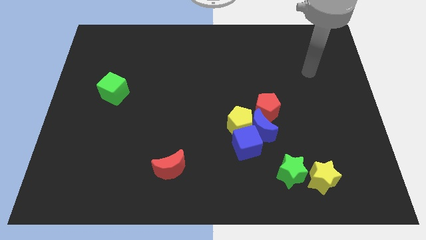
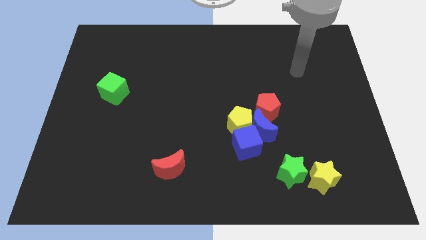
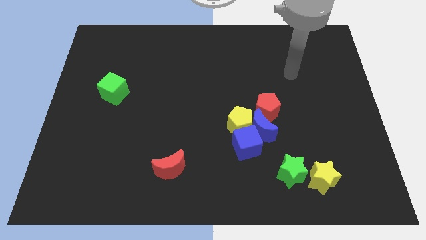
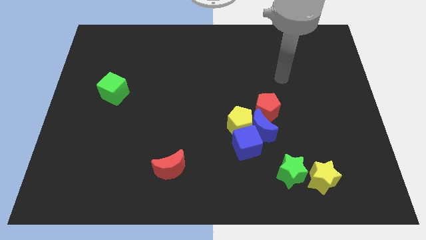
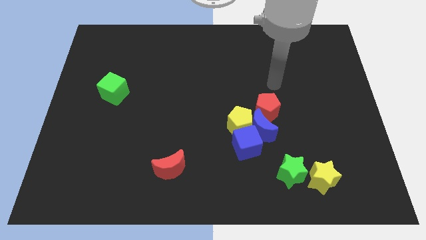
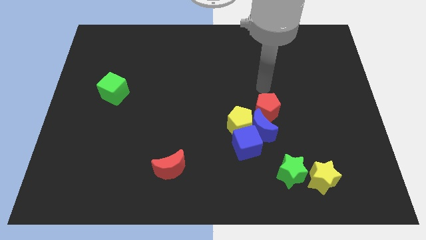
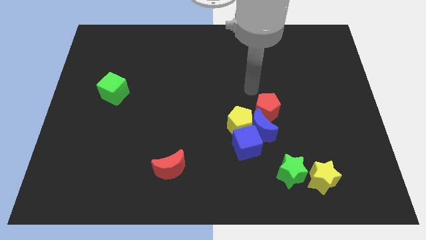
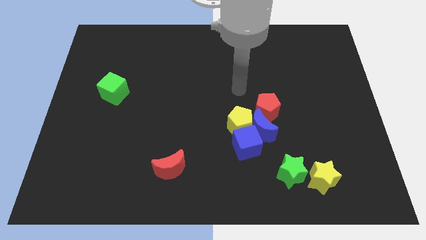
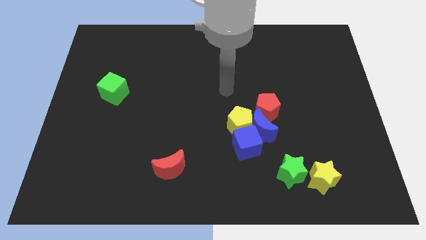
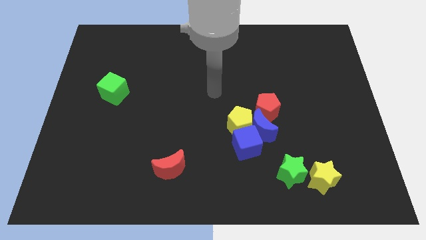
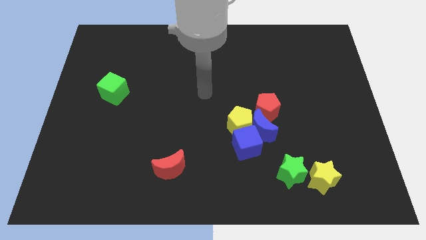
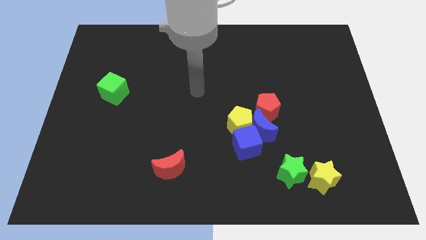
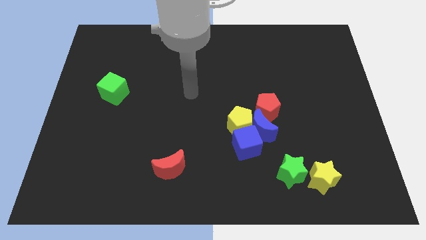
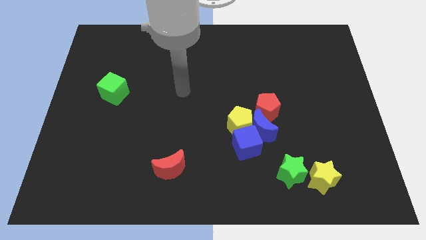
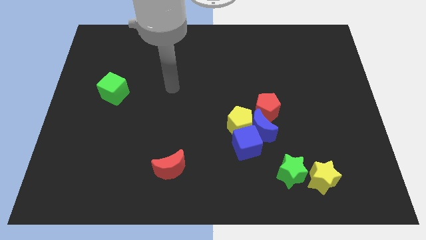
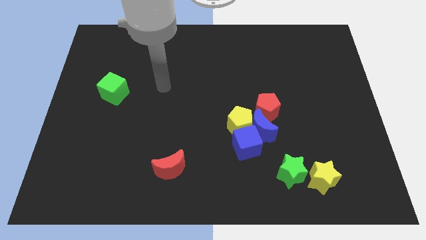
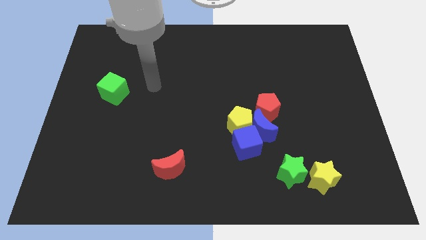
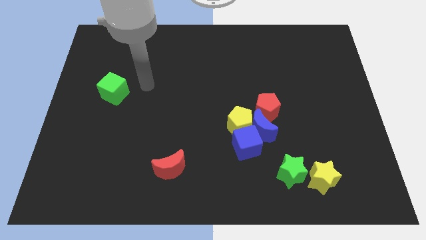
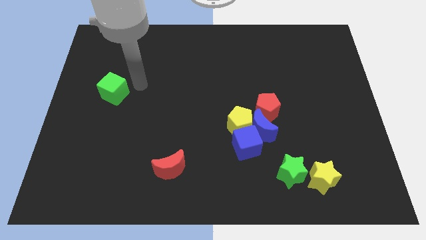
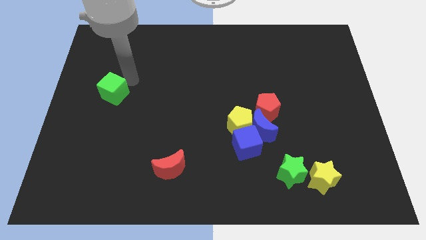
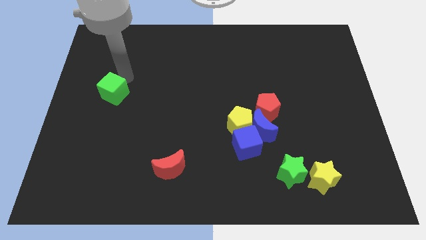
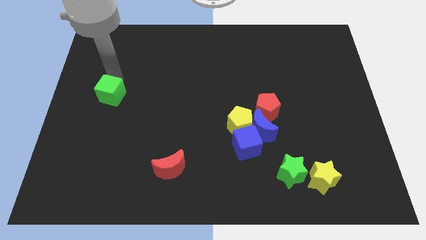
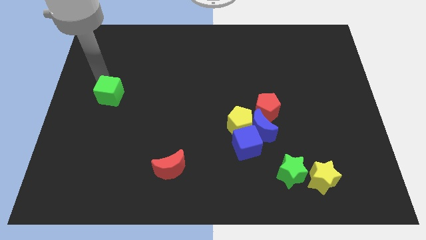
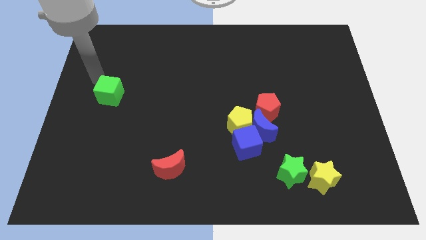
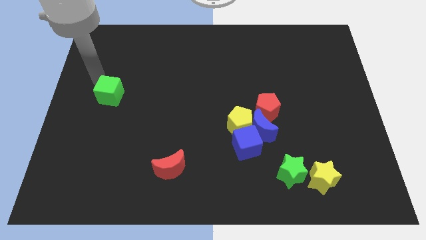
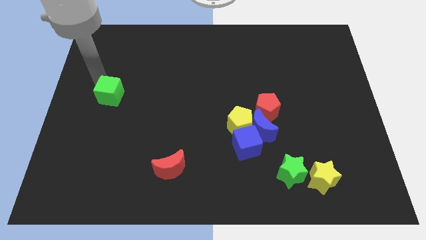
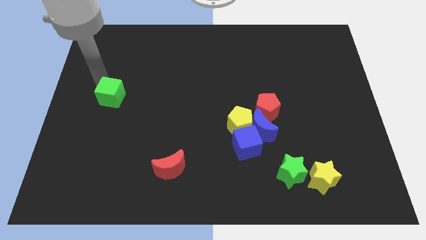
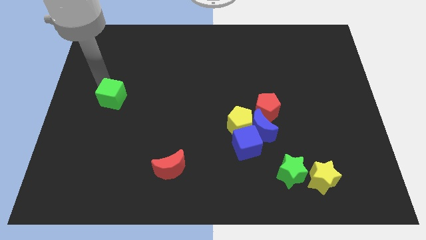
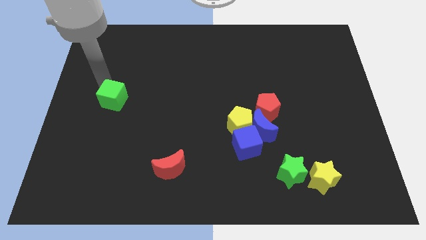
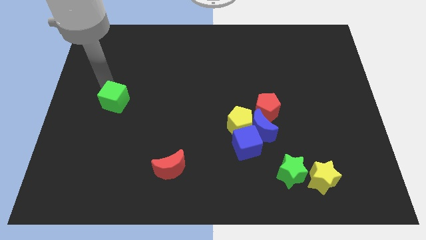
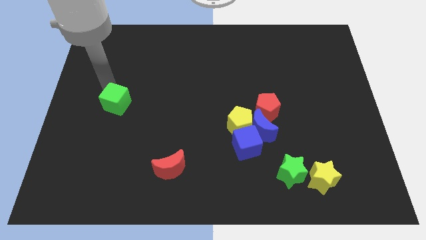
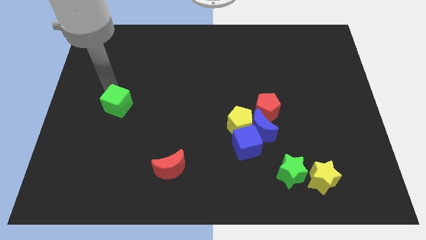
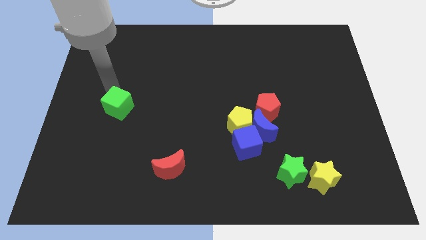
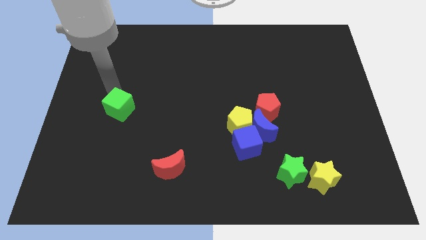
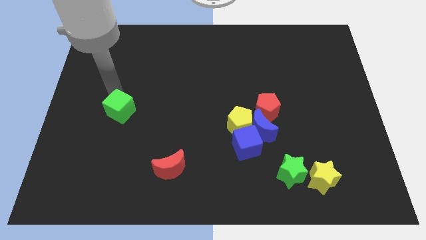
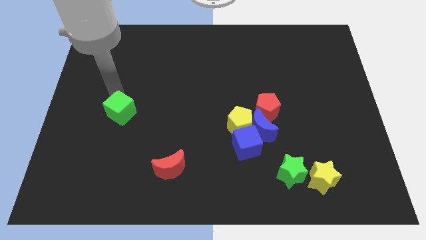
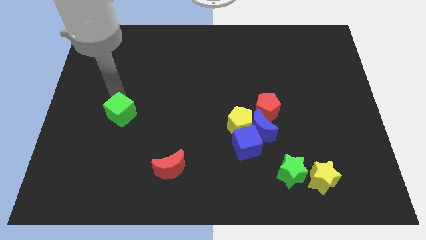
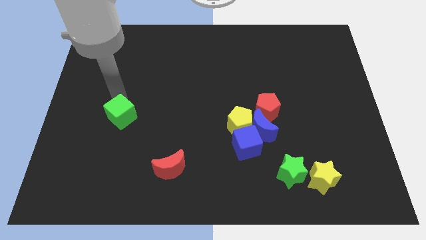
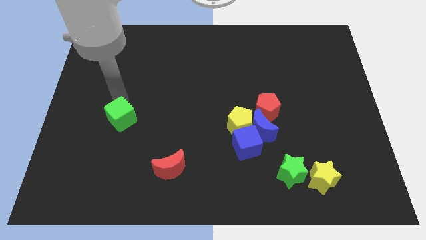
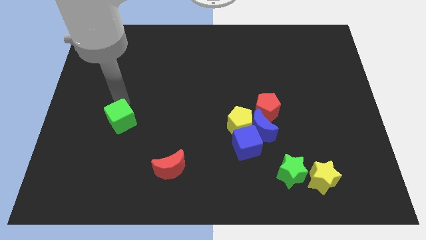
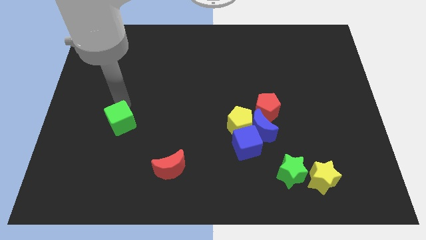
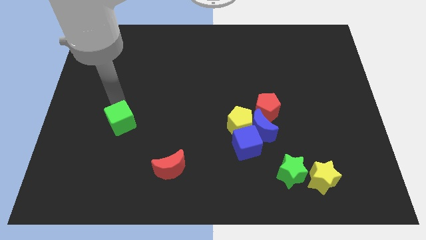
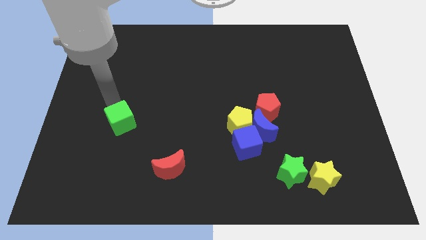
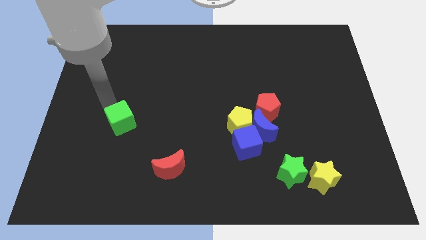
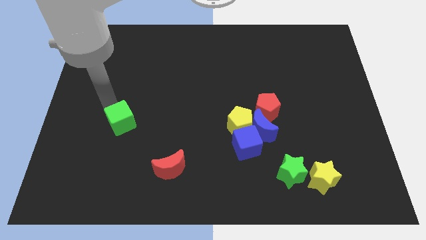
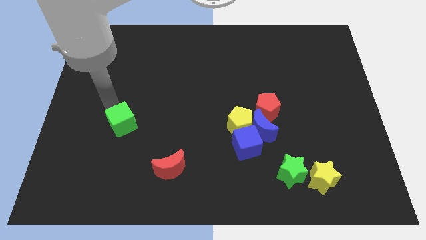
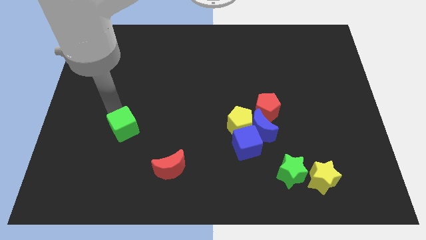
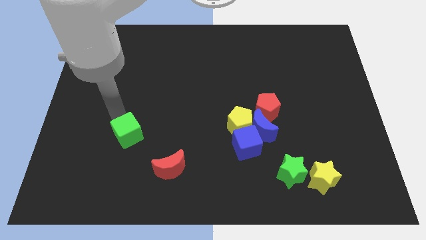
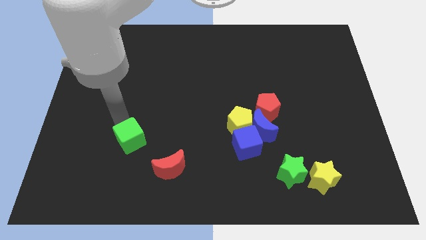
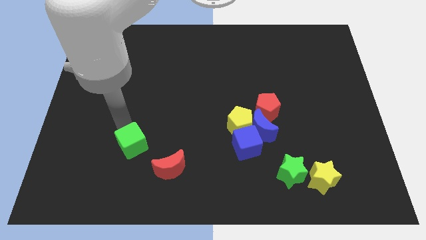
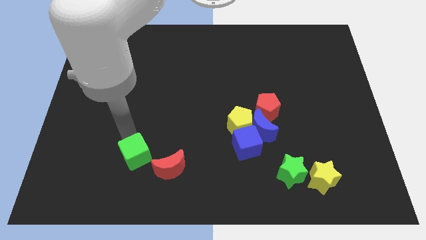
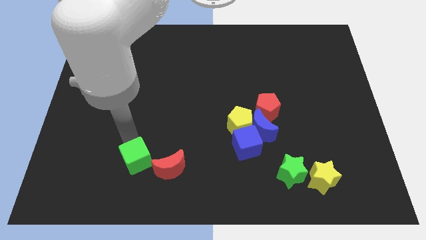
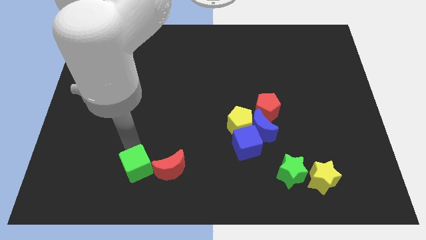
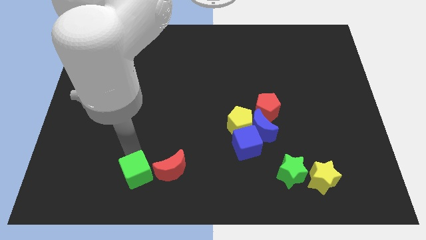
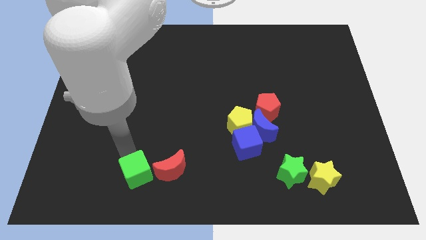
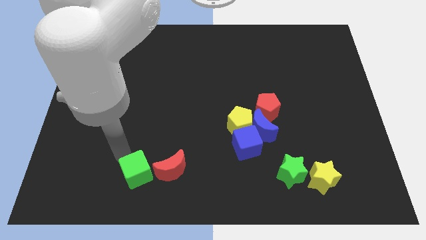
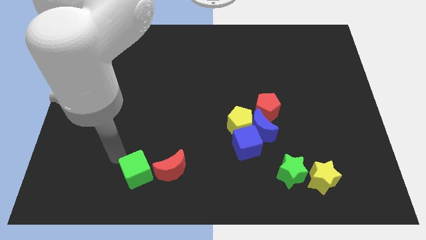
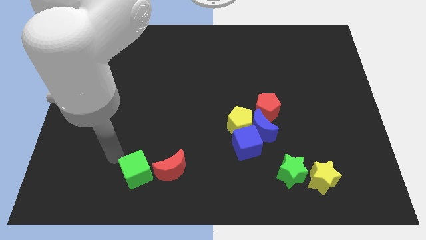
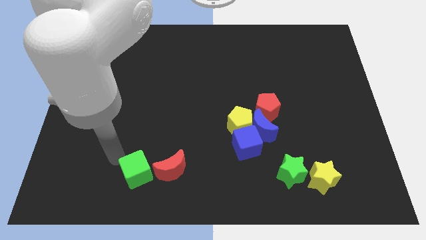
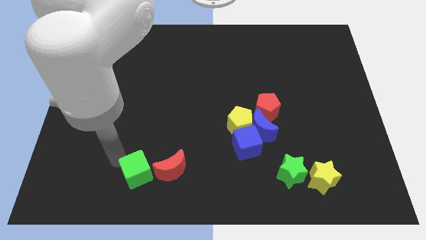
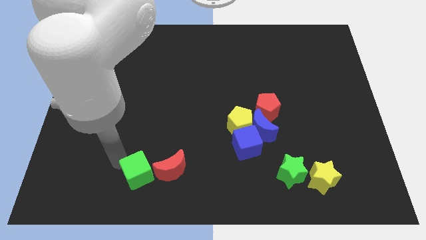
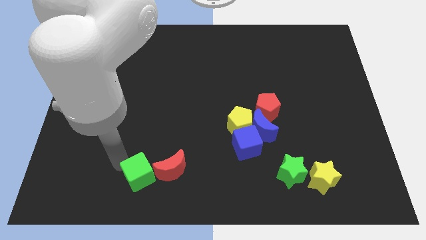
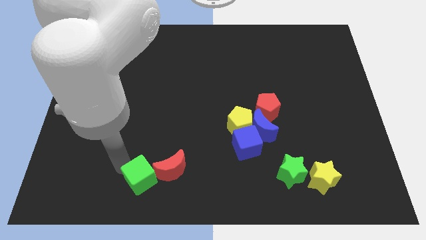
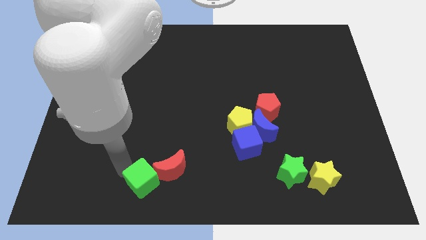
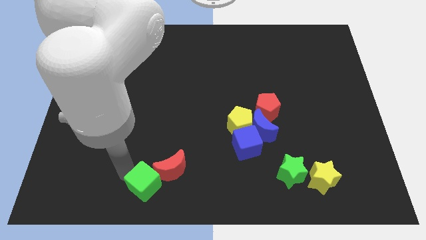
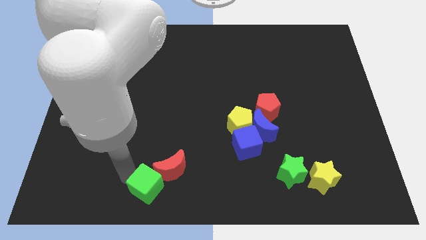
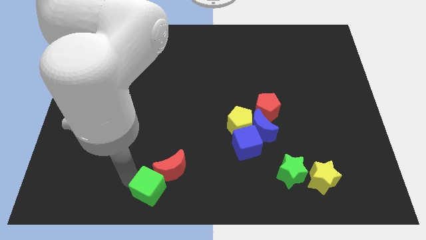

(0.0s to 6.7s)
slide the green cube to the bottom side

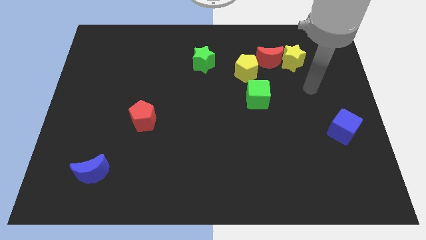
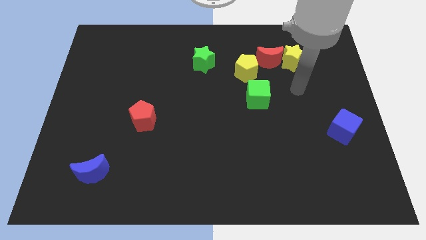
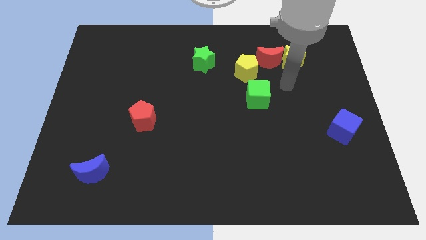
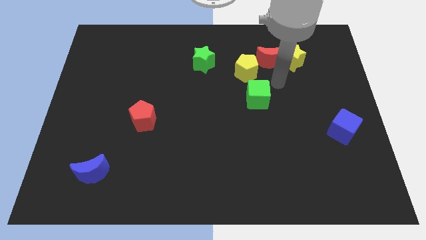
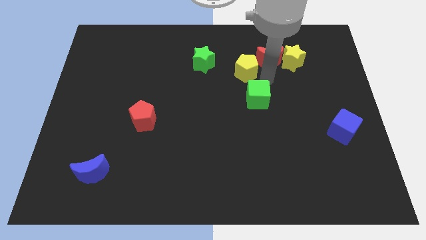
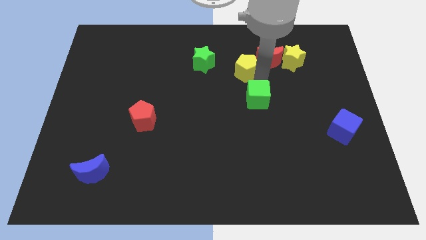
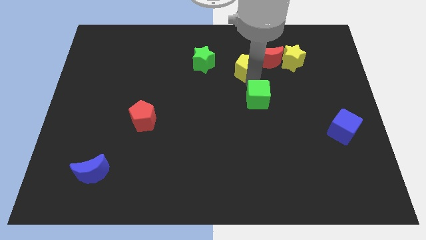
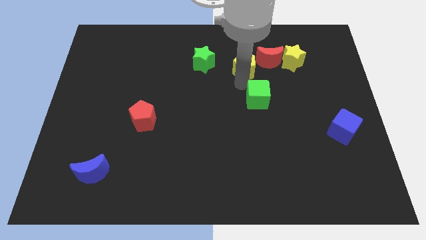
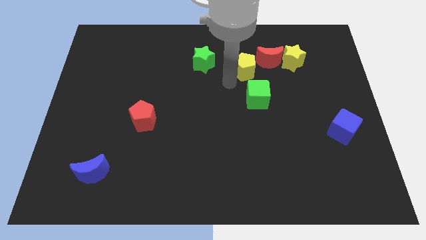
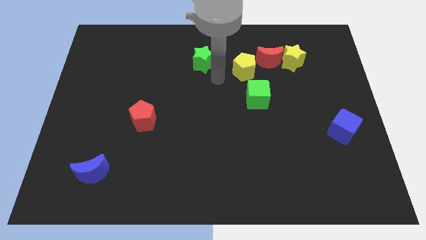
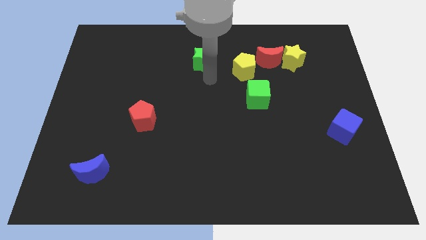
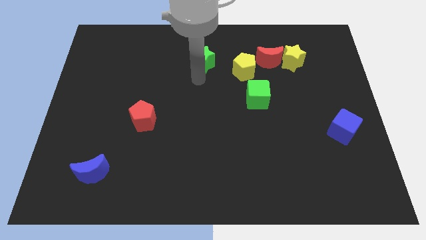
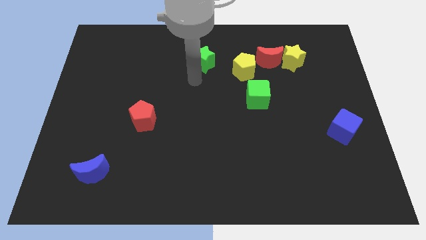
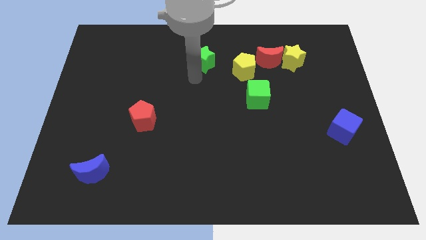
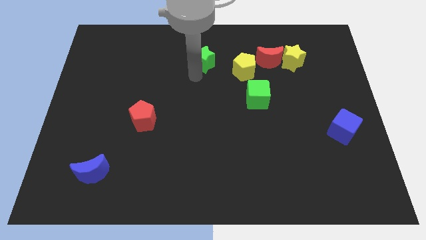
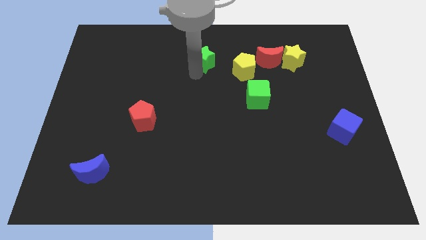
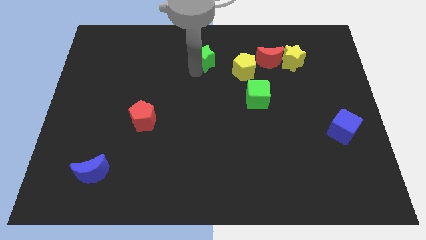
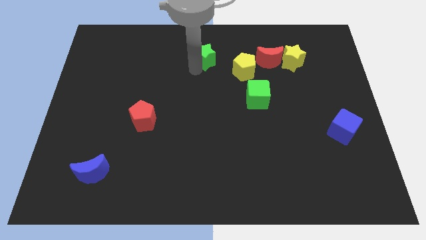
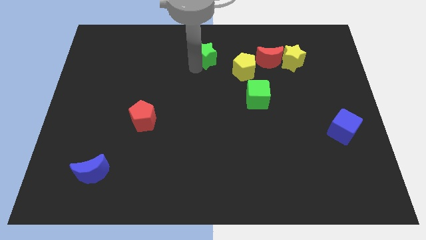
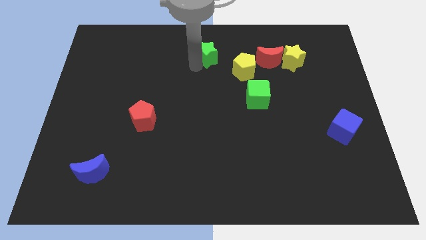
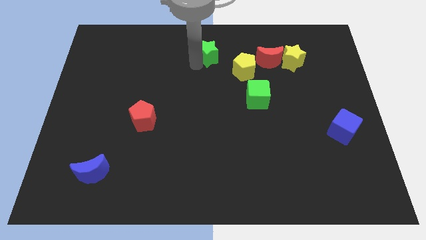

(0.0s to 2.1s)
move the green star to the top side
